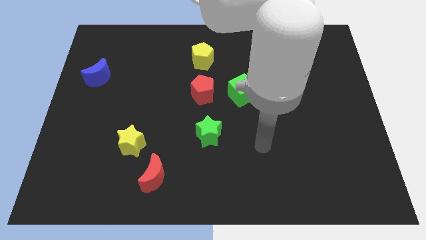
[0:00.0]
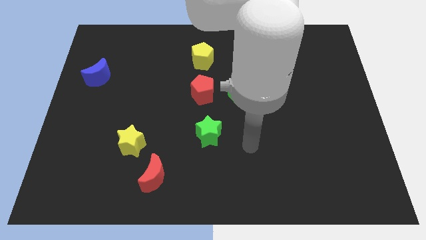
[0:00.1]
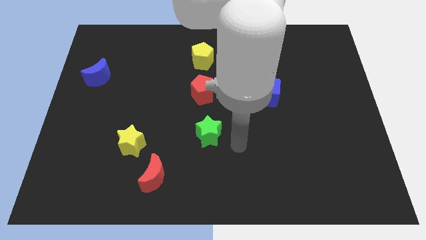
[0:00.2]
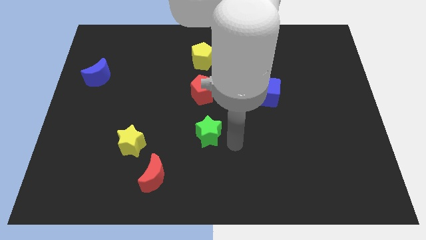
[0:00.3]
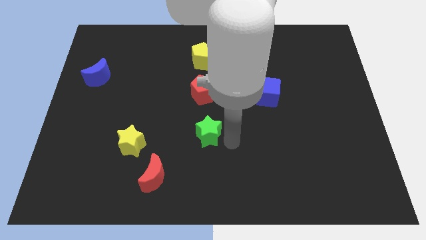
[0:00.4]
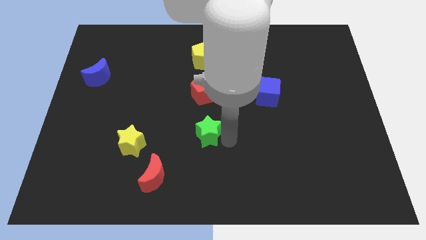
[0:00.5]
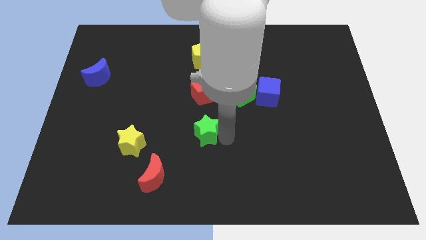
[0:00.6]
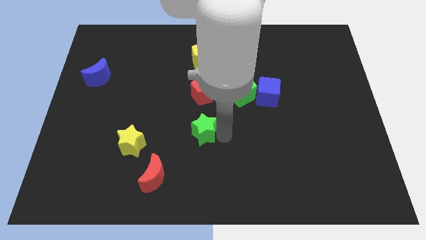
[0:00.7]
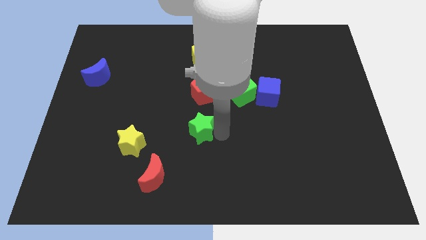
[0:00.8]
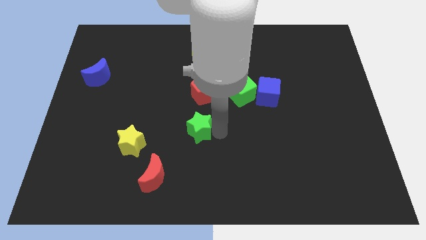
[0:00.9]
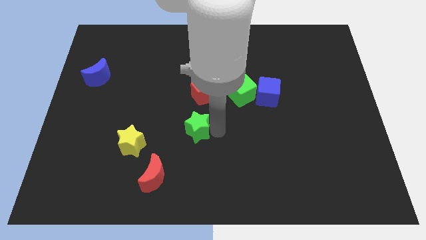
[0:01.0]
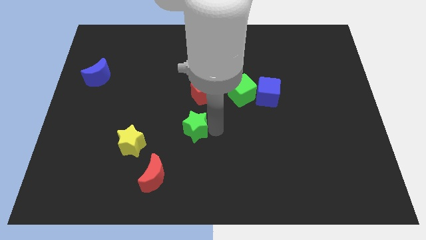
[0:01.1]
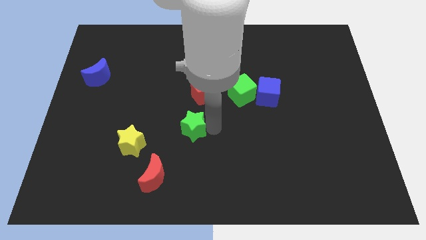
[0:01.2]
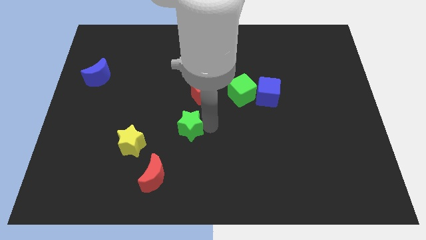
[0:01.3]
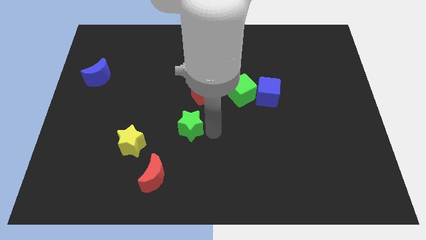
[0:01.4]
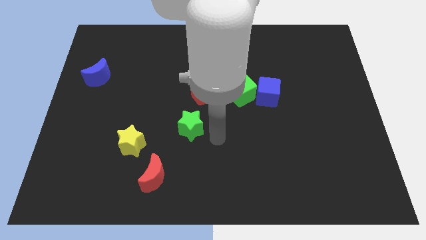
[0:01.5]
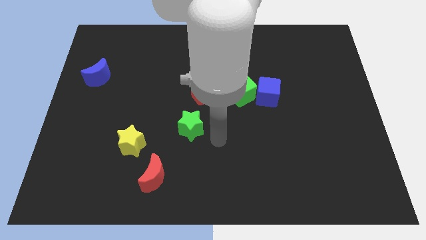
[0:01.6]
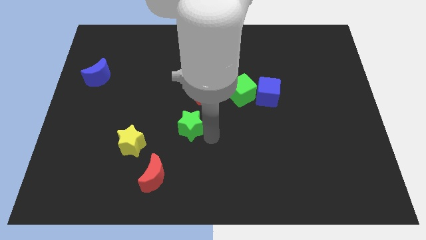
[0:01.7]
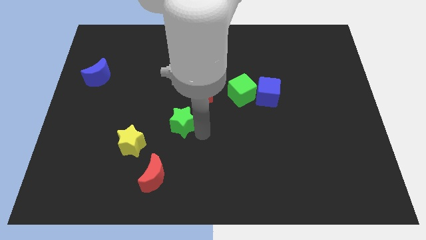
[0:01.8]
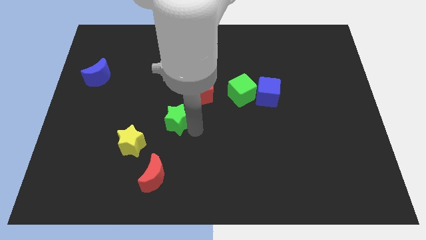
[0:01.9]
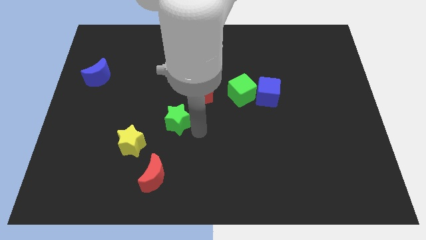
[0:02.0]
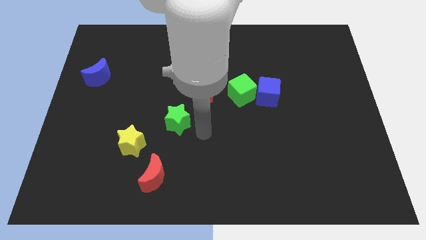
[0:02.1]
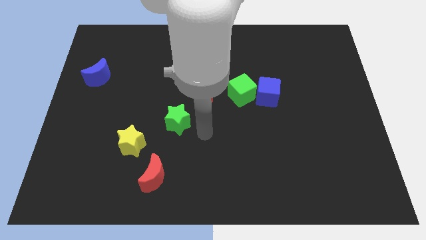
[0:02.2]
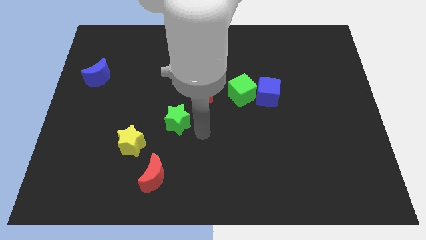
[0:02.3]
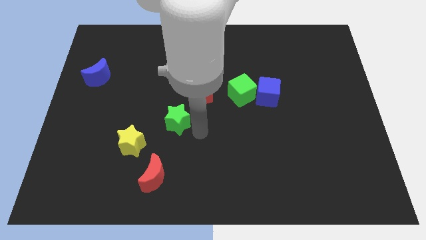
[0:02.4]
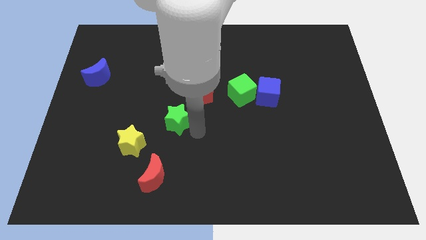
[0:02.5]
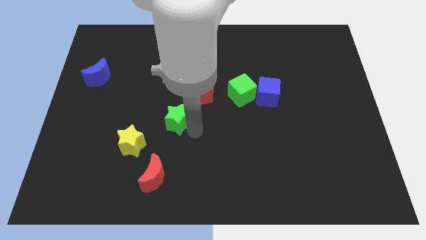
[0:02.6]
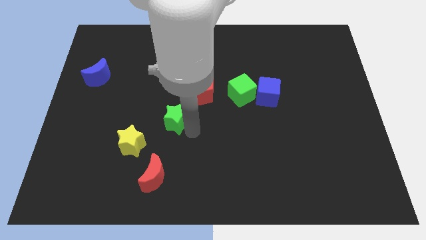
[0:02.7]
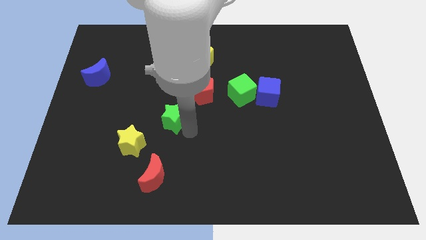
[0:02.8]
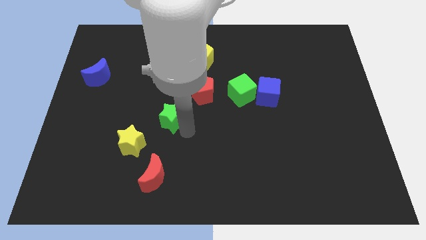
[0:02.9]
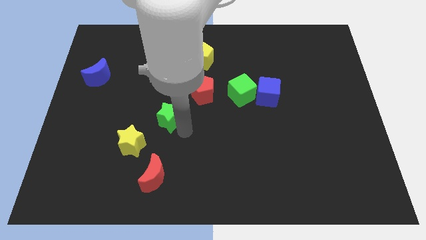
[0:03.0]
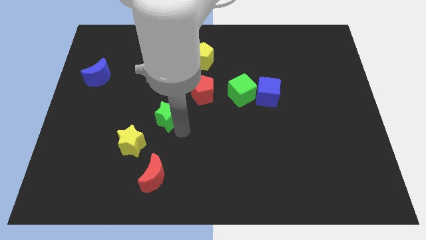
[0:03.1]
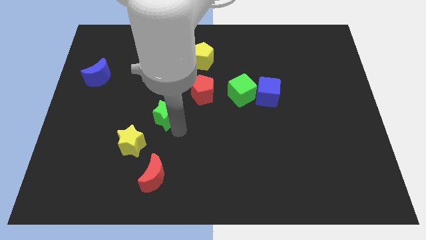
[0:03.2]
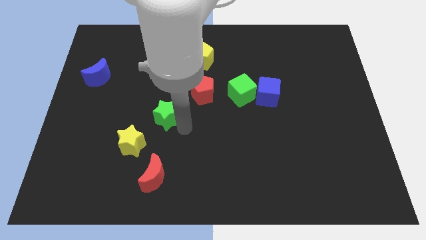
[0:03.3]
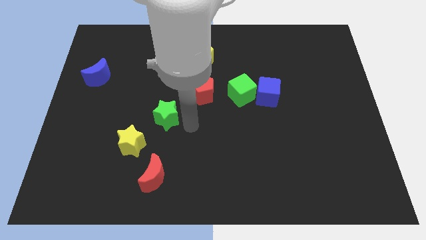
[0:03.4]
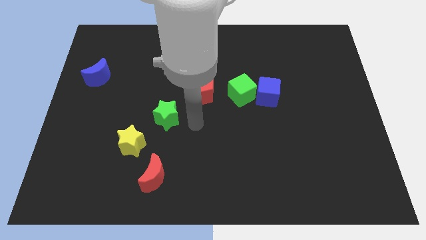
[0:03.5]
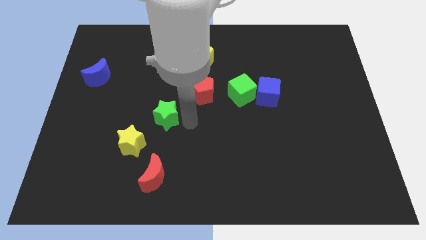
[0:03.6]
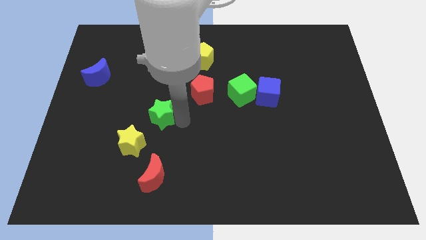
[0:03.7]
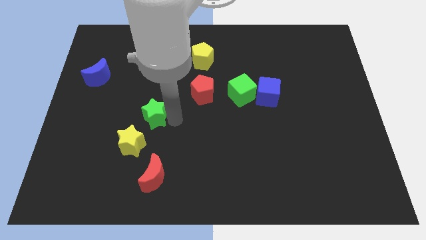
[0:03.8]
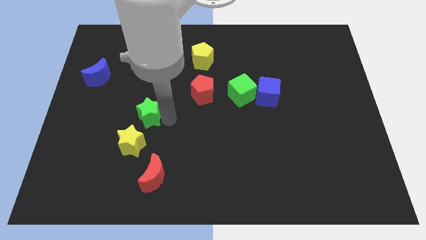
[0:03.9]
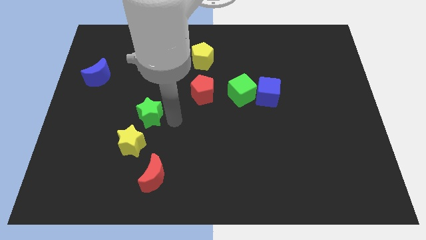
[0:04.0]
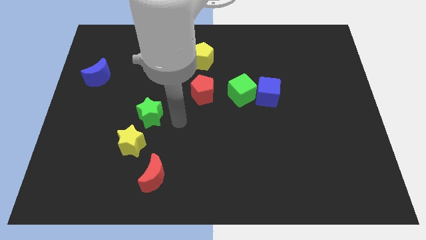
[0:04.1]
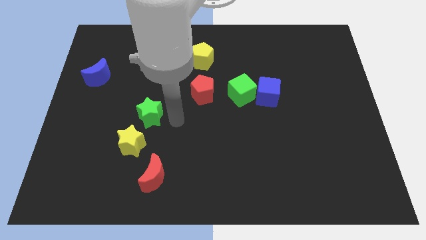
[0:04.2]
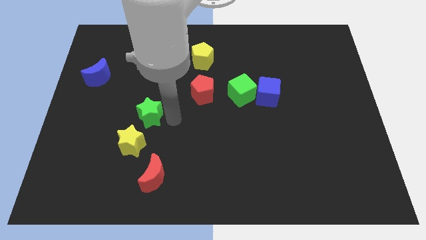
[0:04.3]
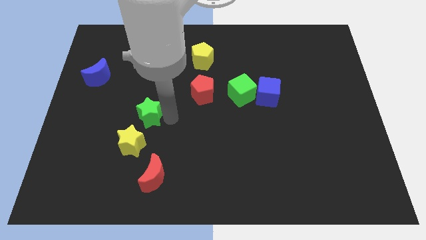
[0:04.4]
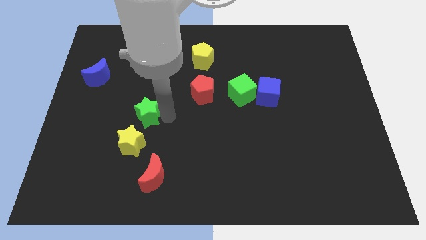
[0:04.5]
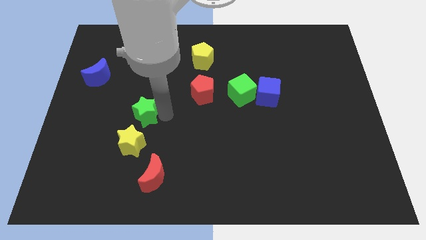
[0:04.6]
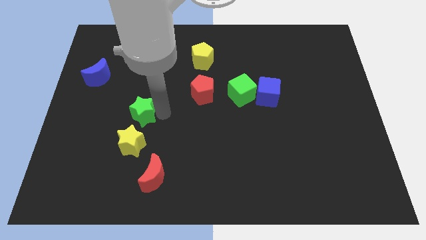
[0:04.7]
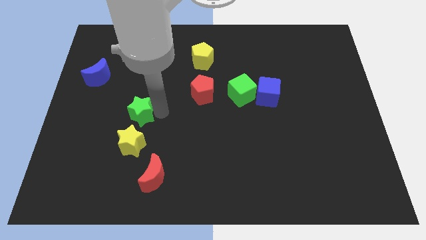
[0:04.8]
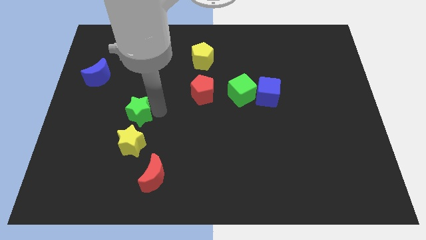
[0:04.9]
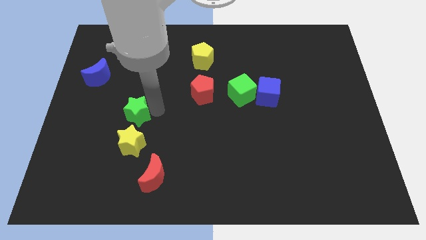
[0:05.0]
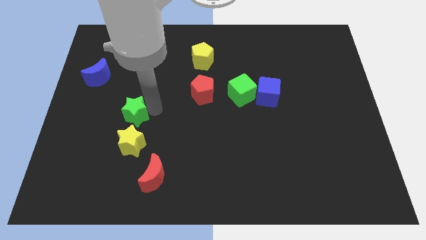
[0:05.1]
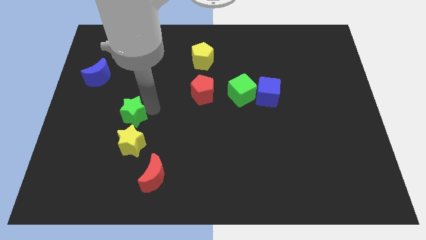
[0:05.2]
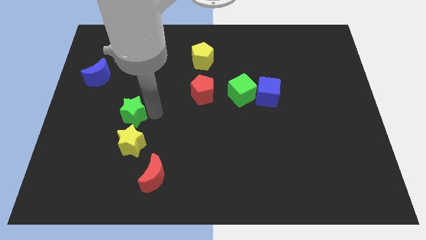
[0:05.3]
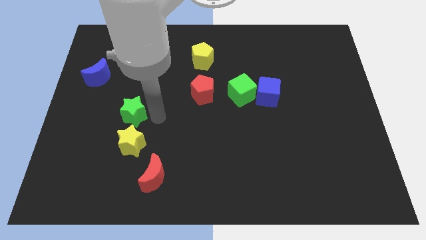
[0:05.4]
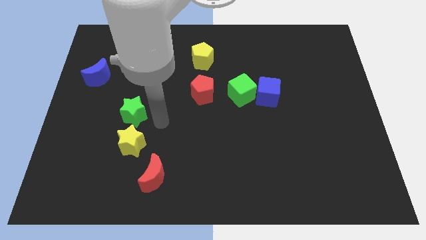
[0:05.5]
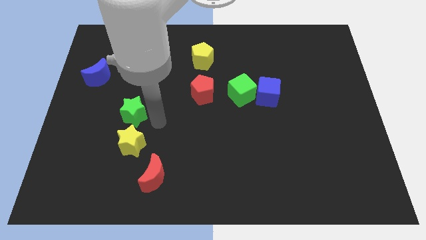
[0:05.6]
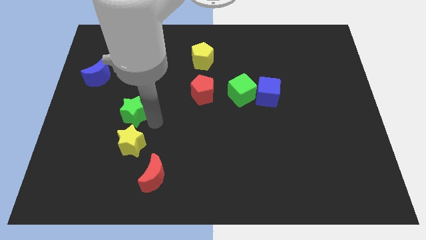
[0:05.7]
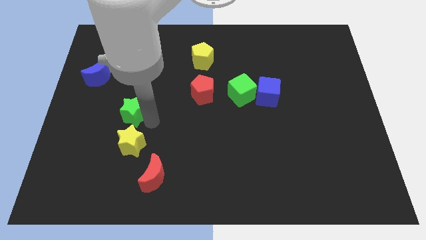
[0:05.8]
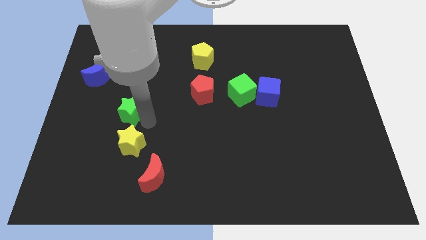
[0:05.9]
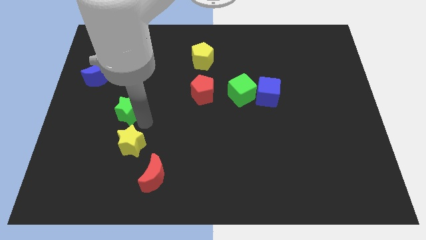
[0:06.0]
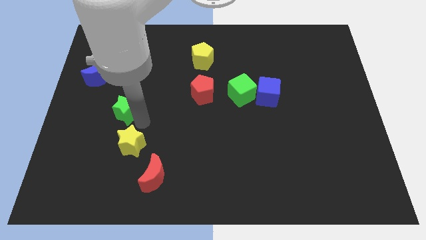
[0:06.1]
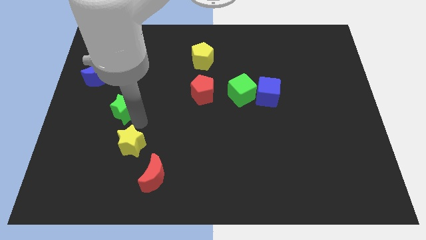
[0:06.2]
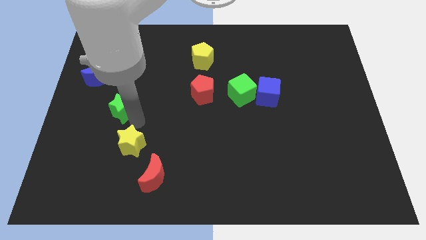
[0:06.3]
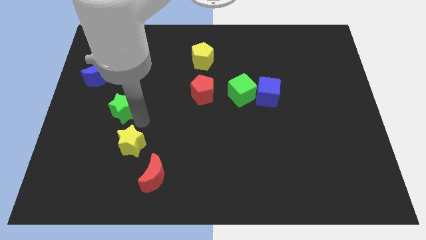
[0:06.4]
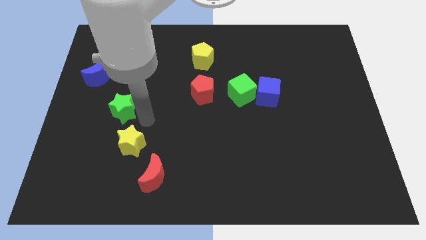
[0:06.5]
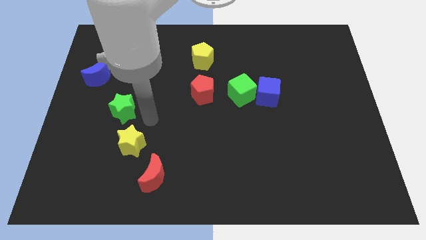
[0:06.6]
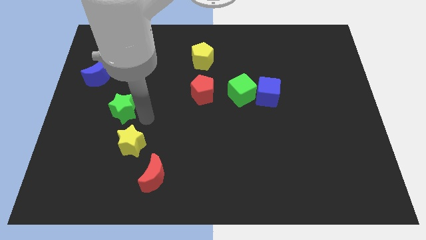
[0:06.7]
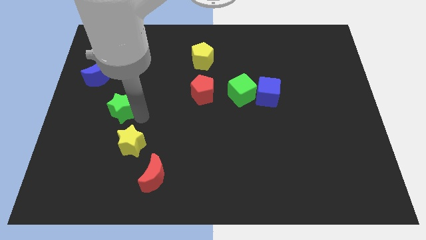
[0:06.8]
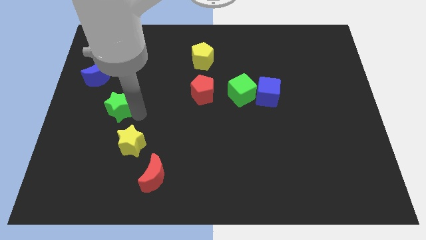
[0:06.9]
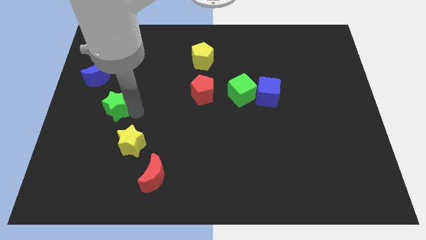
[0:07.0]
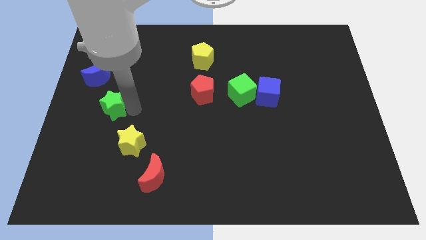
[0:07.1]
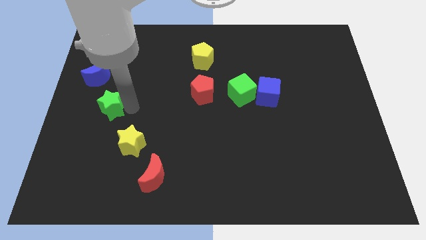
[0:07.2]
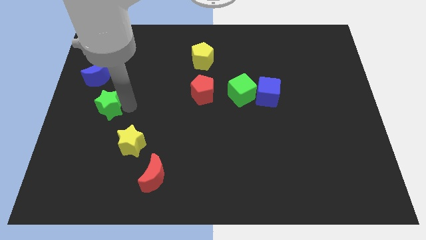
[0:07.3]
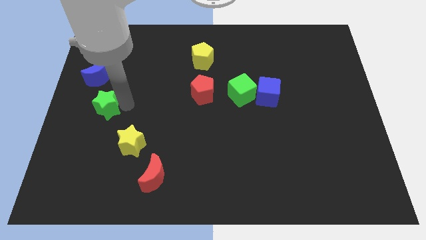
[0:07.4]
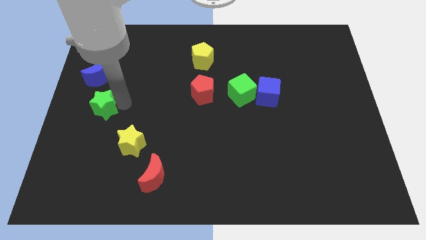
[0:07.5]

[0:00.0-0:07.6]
push the green star to the left side of the board

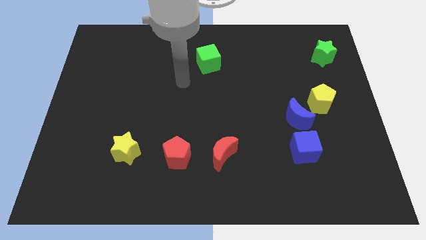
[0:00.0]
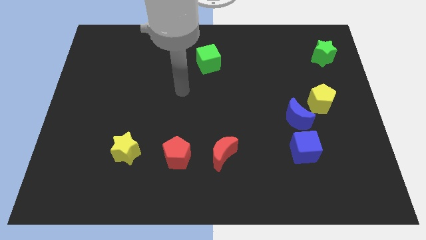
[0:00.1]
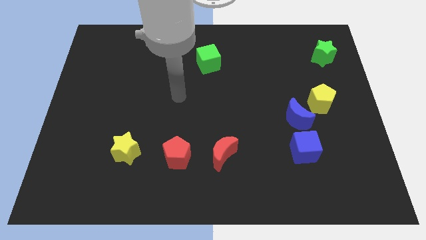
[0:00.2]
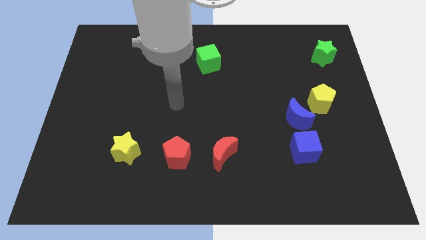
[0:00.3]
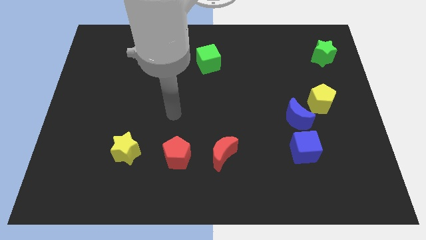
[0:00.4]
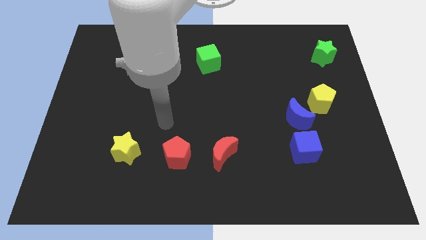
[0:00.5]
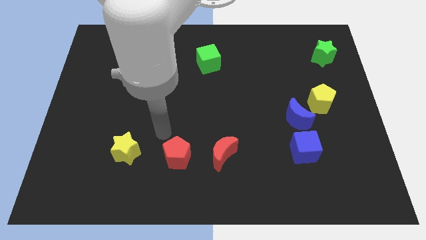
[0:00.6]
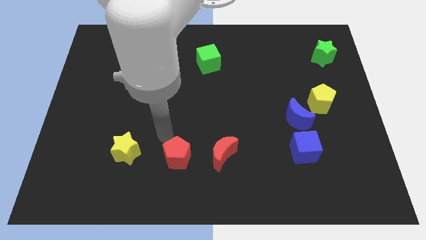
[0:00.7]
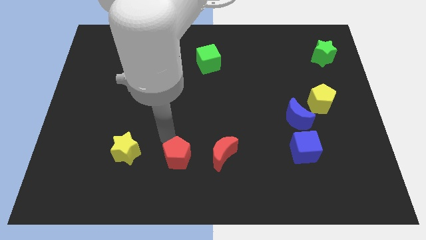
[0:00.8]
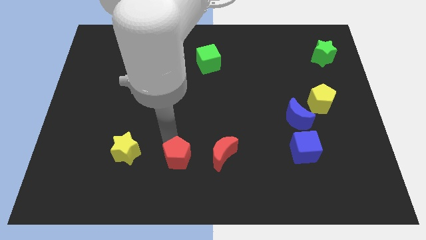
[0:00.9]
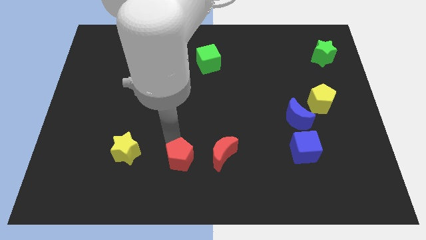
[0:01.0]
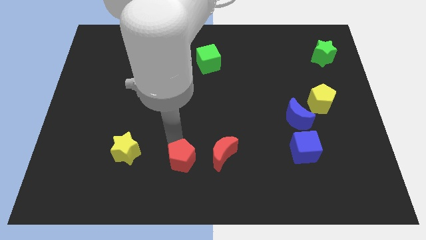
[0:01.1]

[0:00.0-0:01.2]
slide the red pentagon to the bottom
